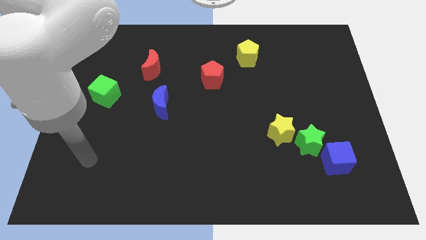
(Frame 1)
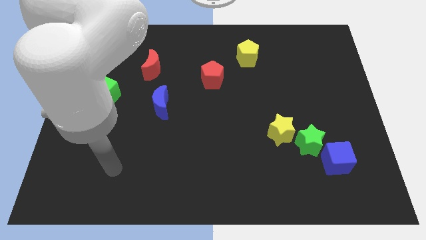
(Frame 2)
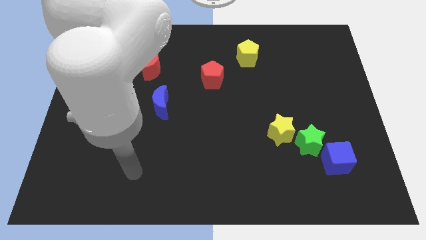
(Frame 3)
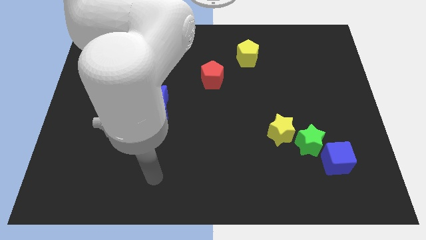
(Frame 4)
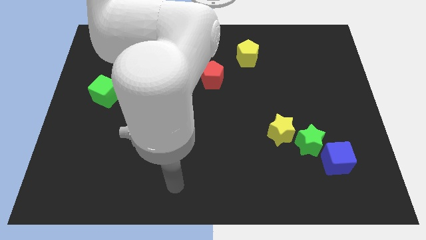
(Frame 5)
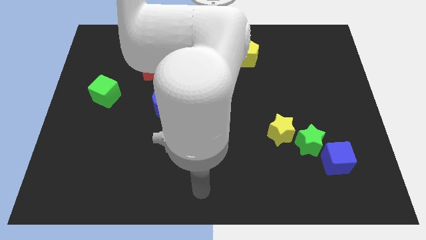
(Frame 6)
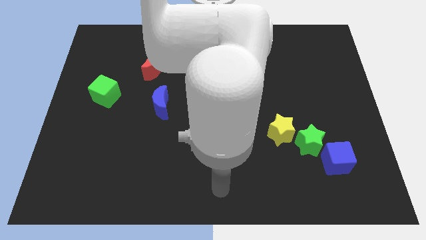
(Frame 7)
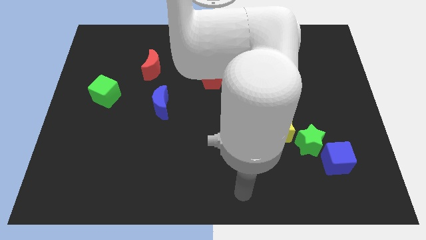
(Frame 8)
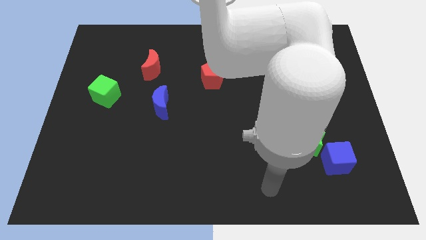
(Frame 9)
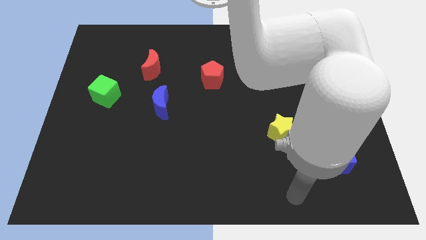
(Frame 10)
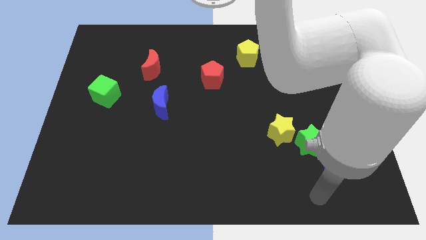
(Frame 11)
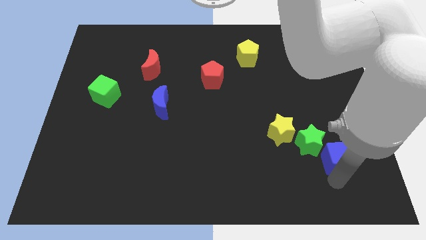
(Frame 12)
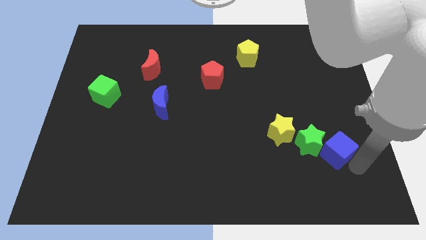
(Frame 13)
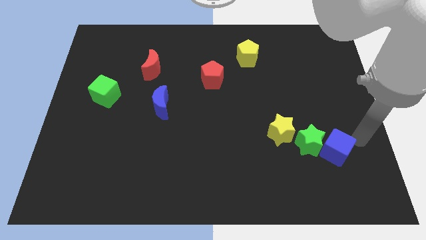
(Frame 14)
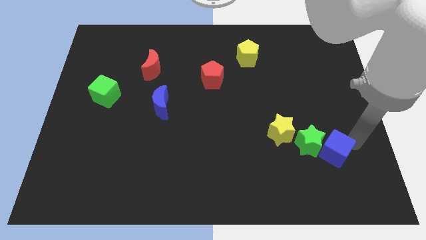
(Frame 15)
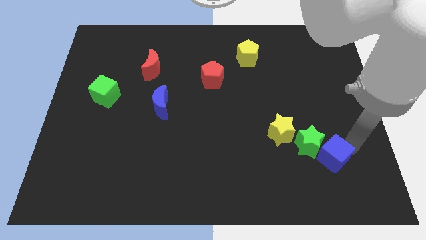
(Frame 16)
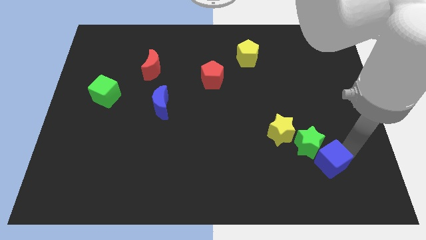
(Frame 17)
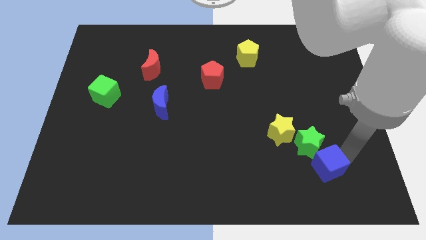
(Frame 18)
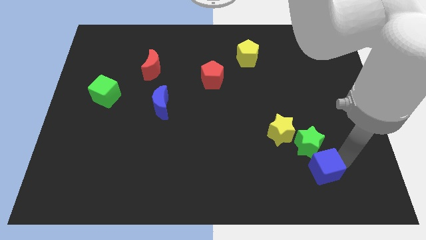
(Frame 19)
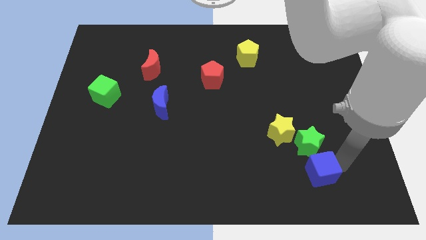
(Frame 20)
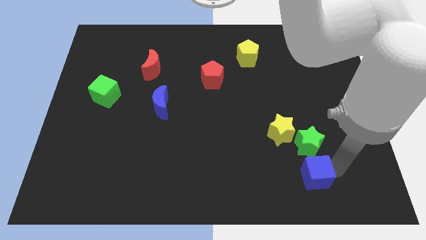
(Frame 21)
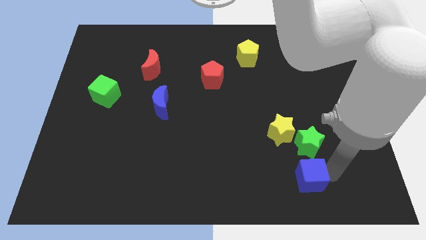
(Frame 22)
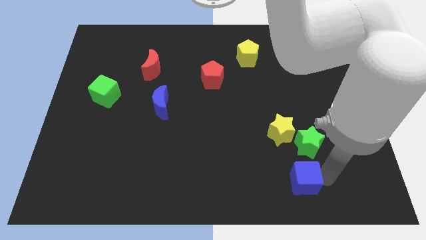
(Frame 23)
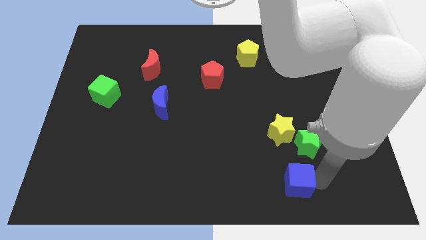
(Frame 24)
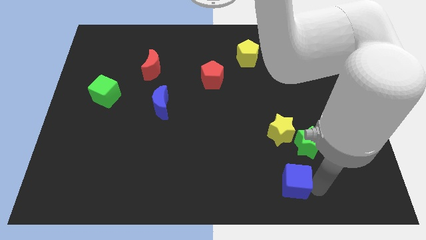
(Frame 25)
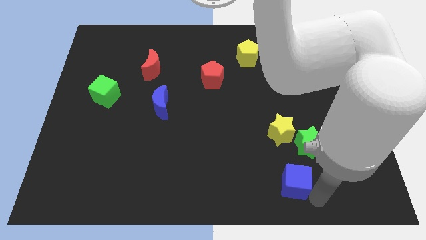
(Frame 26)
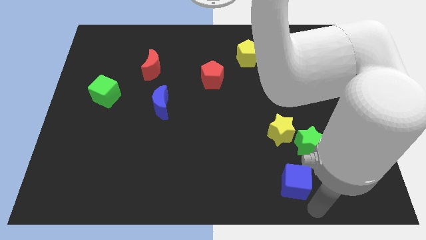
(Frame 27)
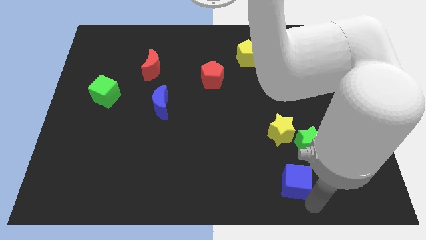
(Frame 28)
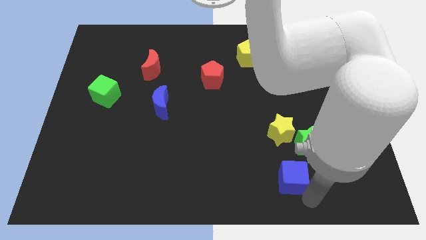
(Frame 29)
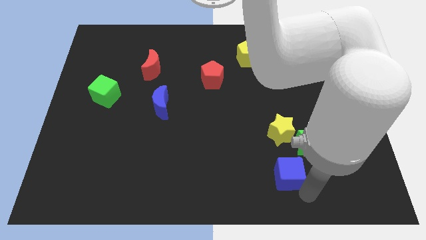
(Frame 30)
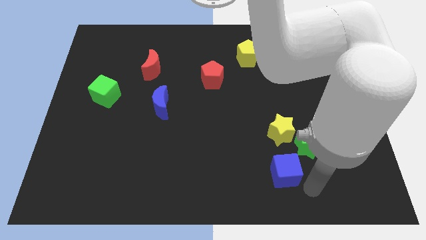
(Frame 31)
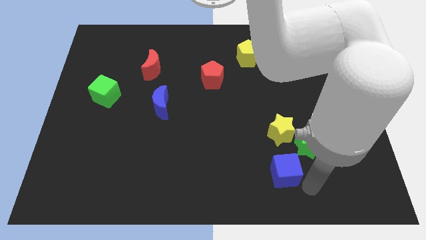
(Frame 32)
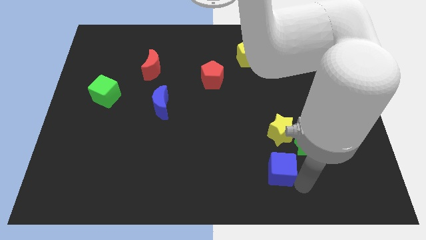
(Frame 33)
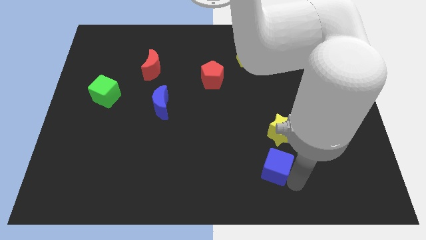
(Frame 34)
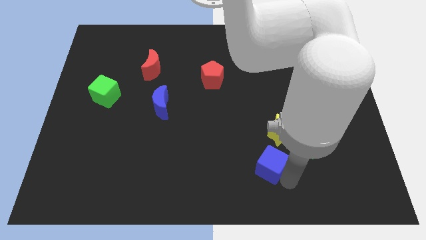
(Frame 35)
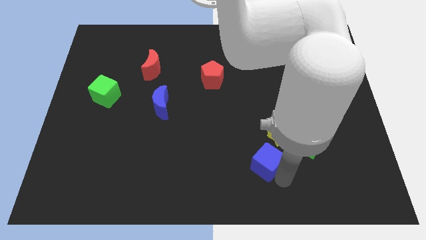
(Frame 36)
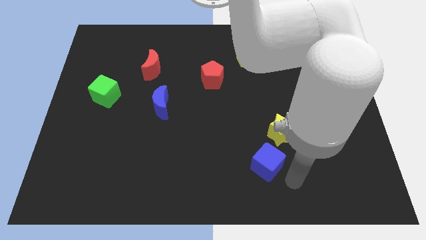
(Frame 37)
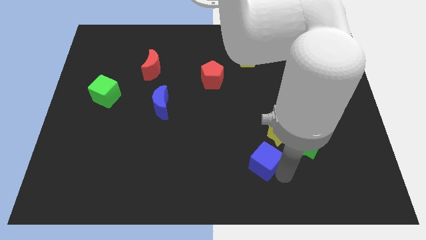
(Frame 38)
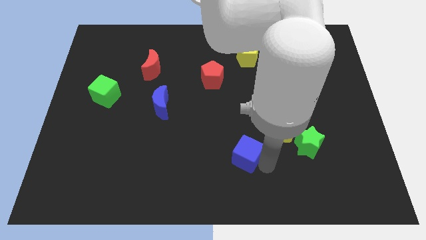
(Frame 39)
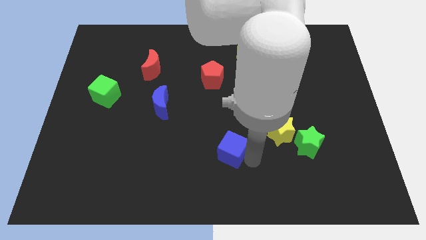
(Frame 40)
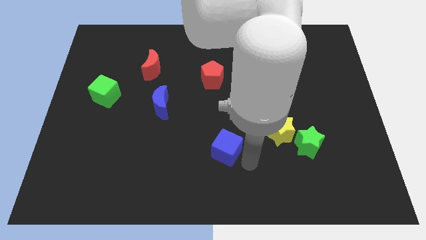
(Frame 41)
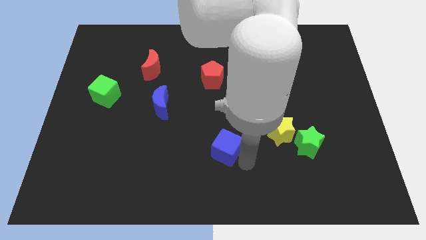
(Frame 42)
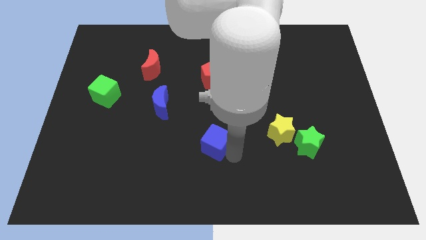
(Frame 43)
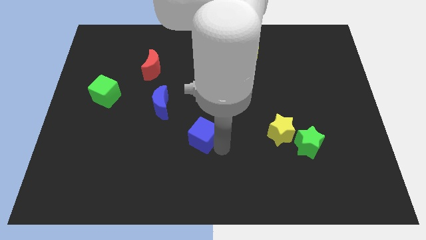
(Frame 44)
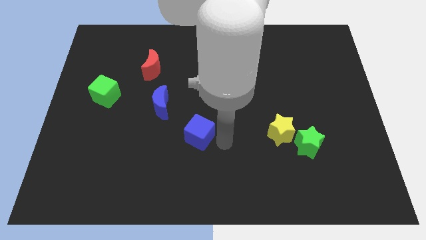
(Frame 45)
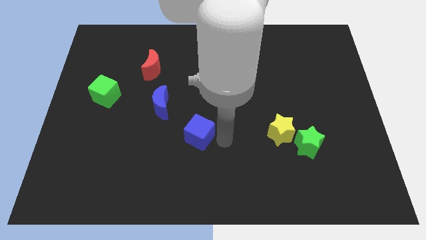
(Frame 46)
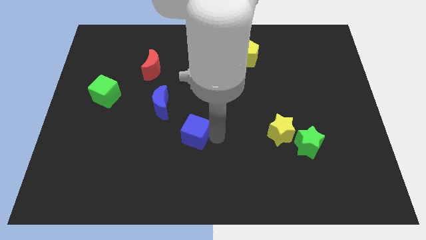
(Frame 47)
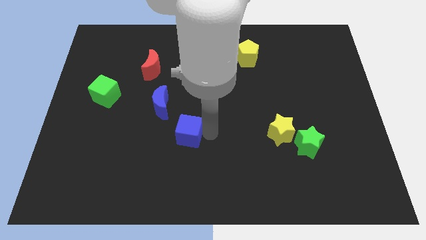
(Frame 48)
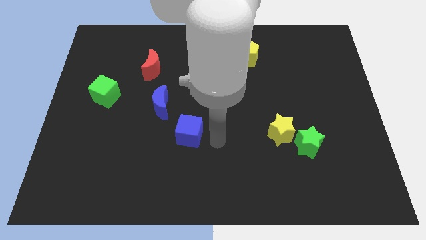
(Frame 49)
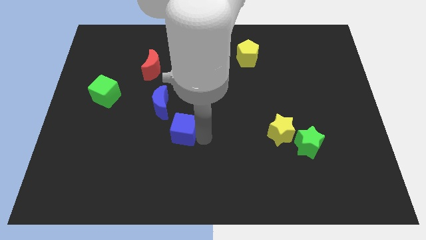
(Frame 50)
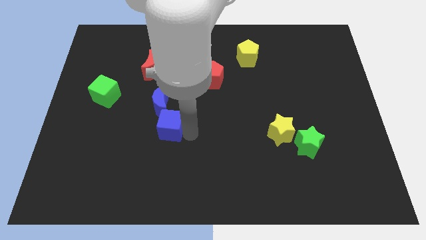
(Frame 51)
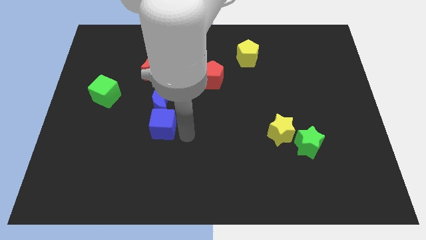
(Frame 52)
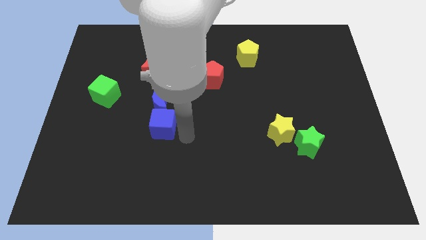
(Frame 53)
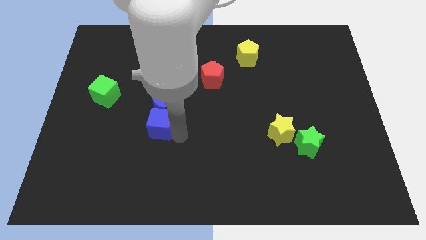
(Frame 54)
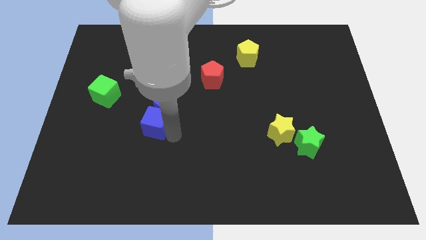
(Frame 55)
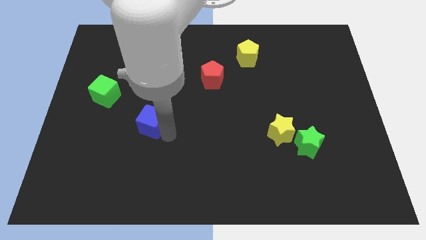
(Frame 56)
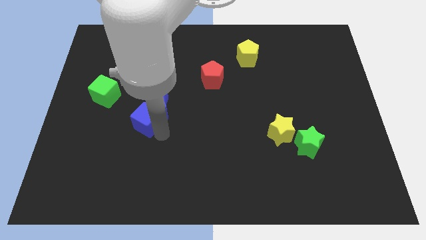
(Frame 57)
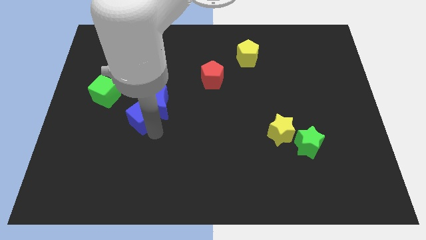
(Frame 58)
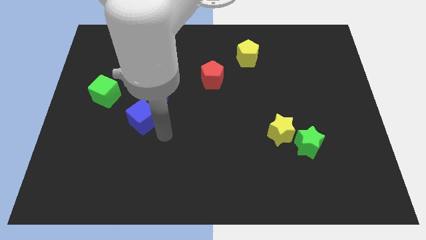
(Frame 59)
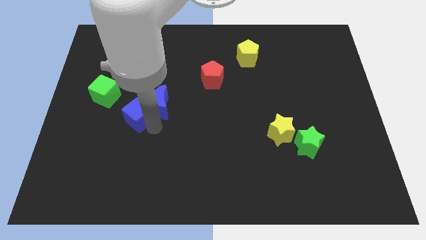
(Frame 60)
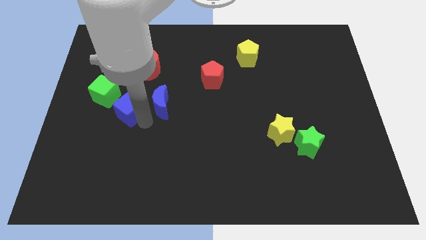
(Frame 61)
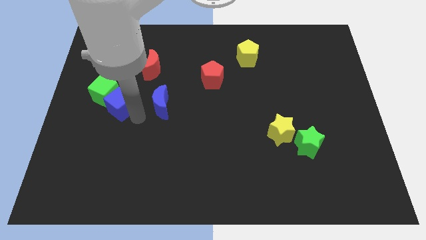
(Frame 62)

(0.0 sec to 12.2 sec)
push the blue cube to the green cube
